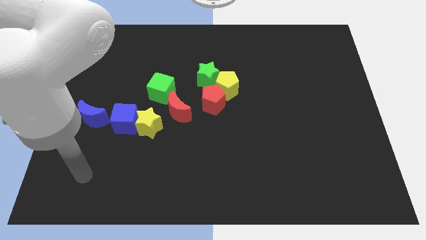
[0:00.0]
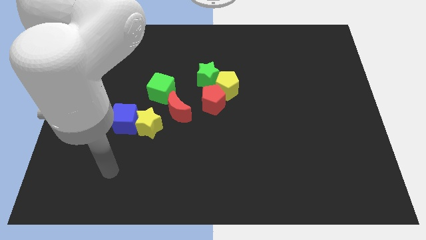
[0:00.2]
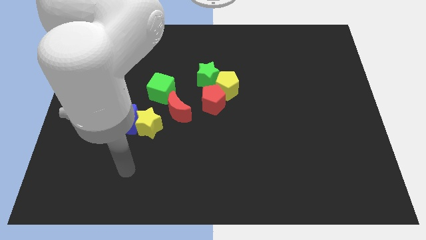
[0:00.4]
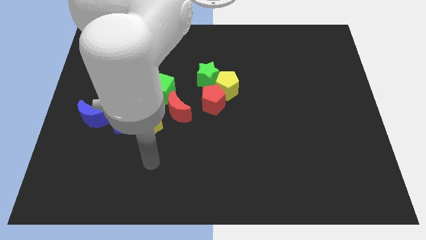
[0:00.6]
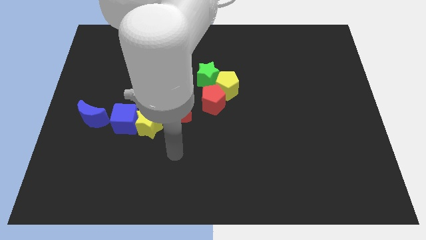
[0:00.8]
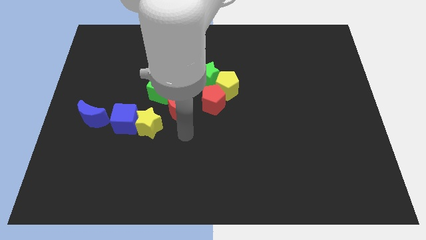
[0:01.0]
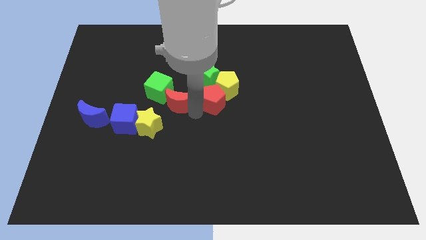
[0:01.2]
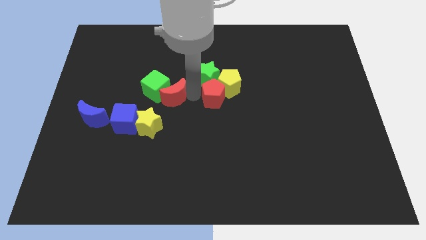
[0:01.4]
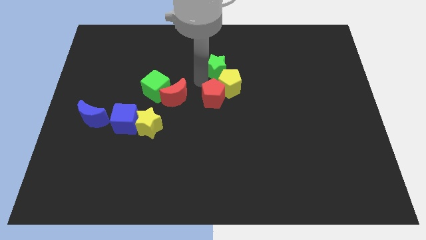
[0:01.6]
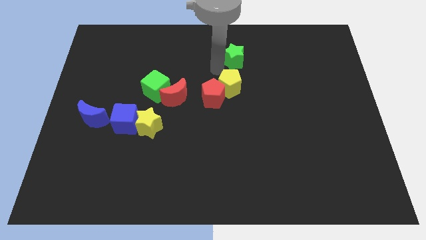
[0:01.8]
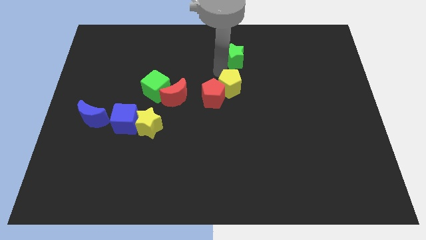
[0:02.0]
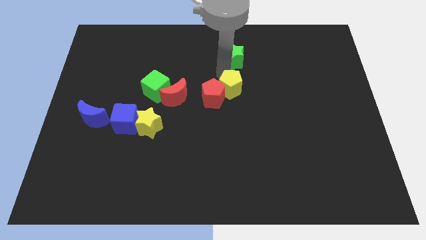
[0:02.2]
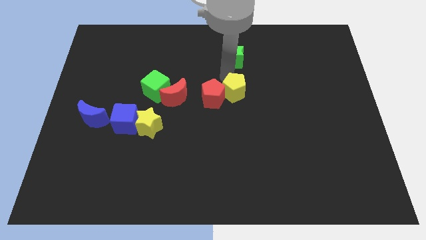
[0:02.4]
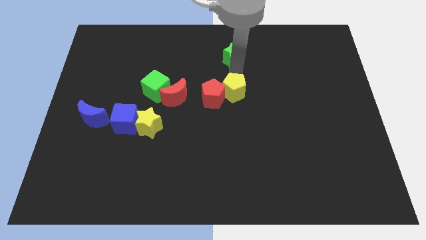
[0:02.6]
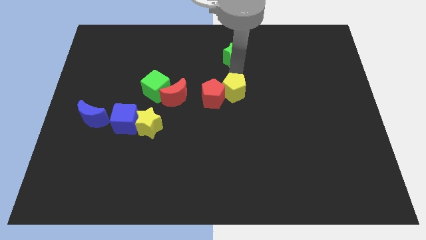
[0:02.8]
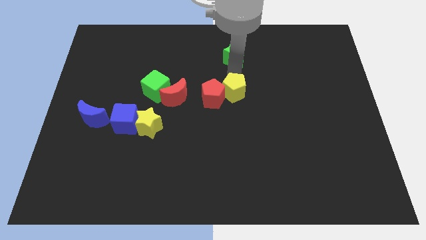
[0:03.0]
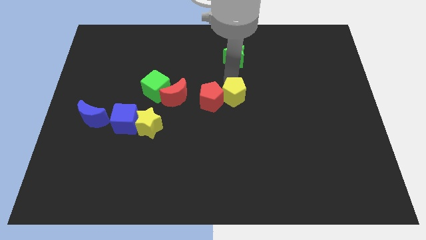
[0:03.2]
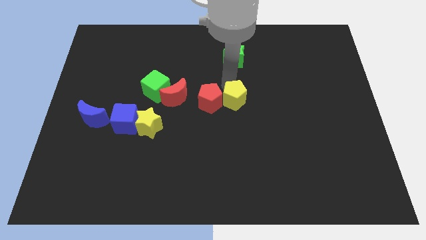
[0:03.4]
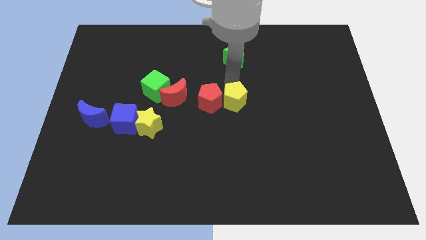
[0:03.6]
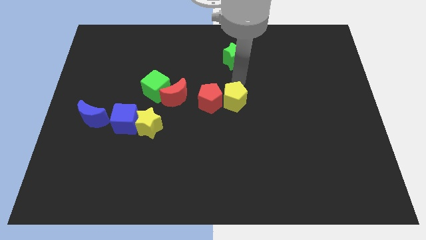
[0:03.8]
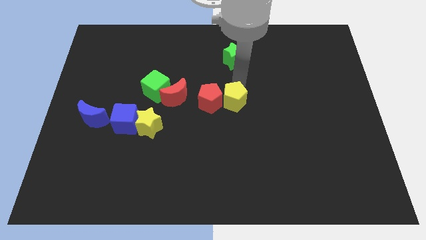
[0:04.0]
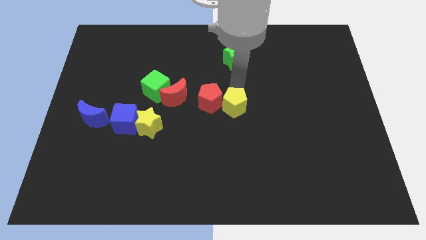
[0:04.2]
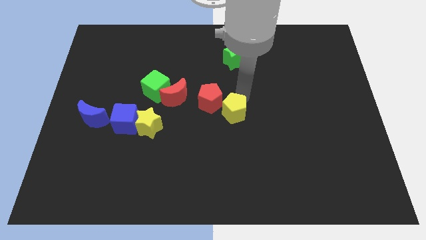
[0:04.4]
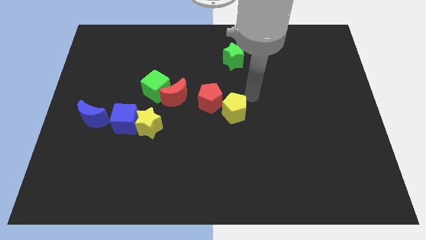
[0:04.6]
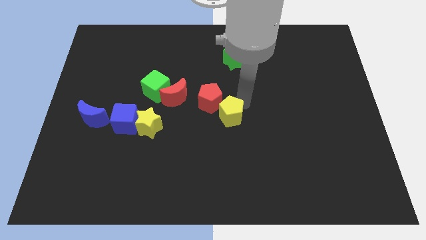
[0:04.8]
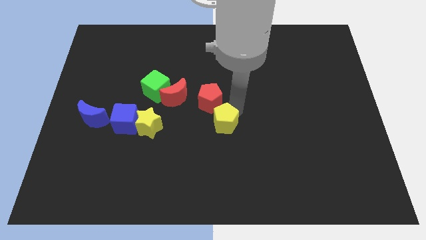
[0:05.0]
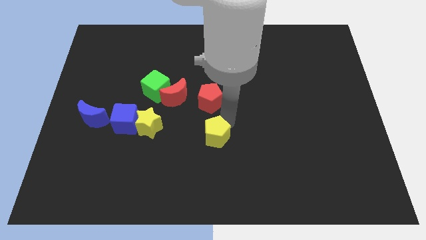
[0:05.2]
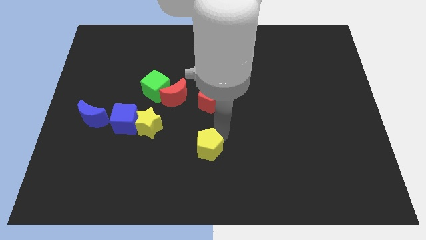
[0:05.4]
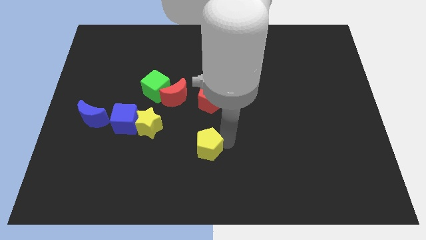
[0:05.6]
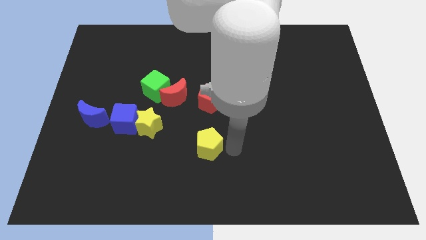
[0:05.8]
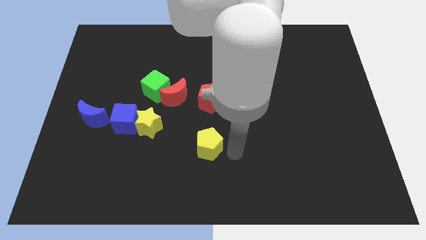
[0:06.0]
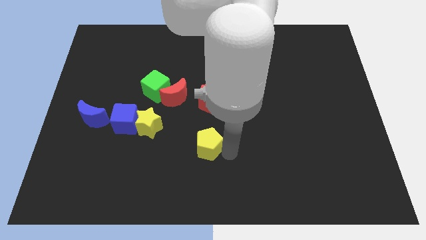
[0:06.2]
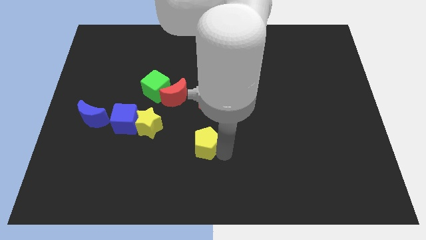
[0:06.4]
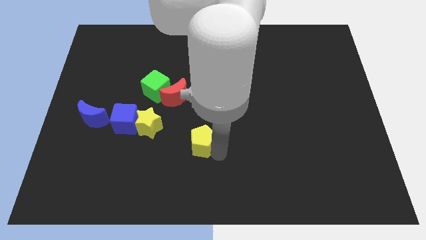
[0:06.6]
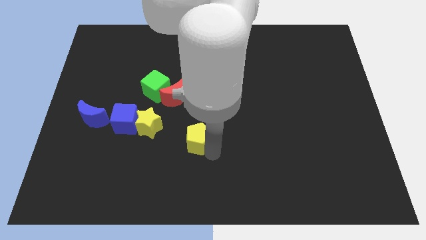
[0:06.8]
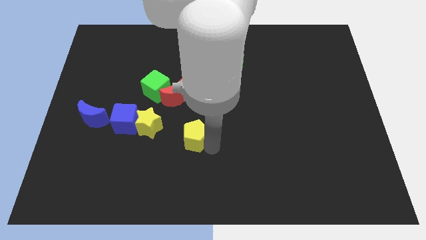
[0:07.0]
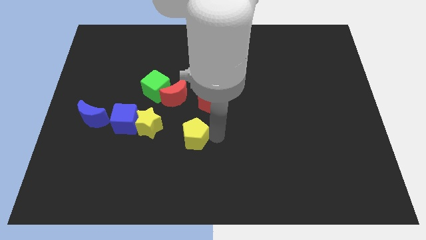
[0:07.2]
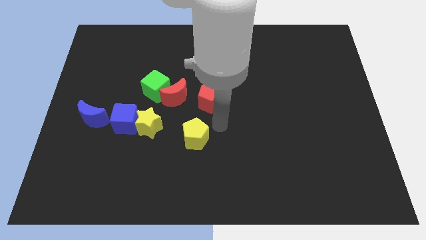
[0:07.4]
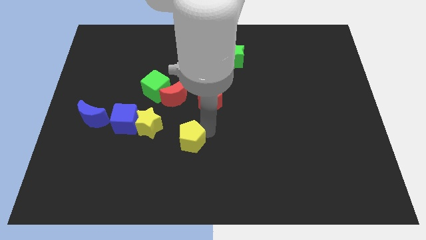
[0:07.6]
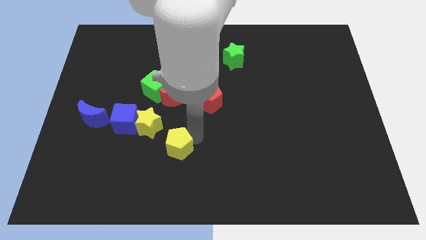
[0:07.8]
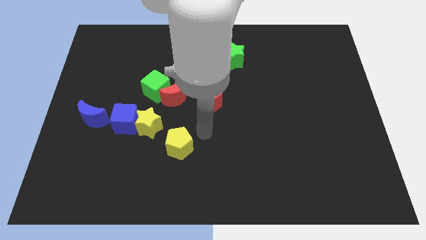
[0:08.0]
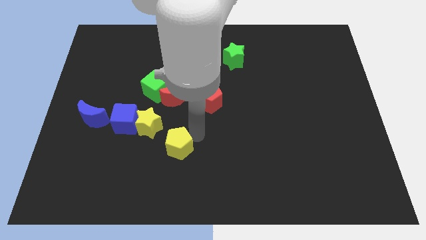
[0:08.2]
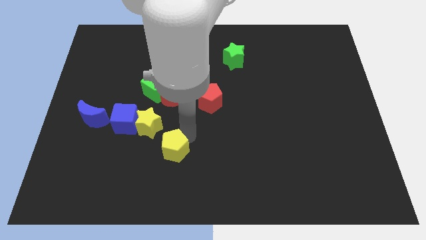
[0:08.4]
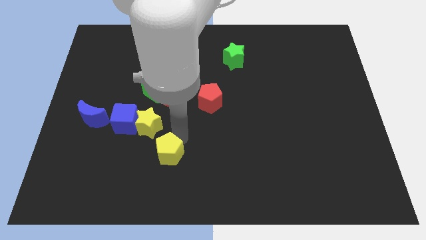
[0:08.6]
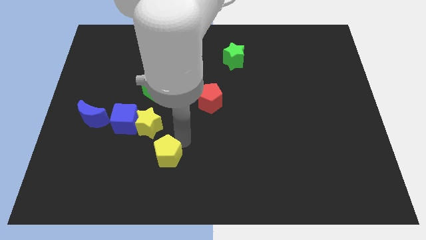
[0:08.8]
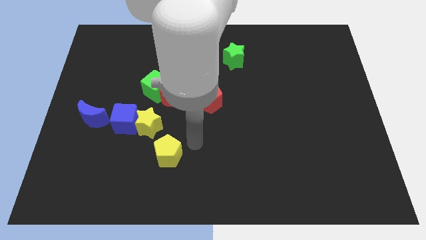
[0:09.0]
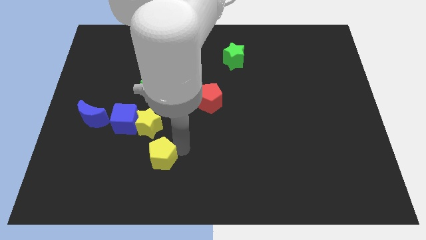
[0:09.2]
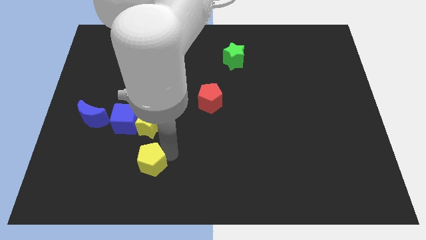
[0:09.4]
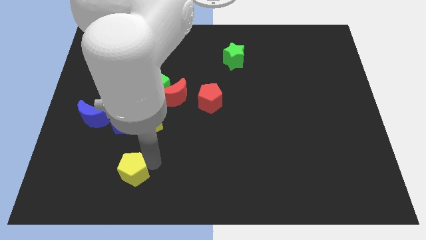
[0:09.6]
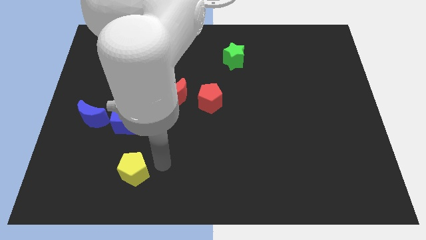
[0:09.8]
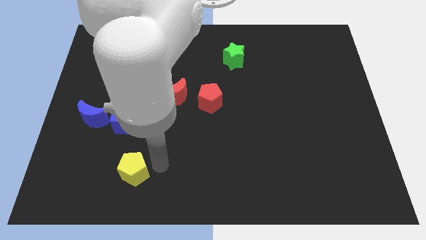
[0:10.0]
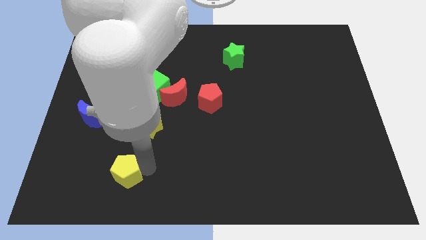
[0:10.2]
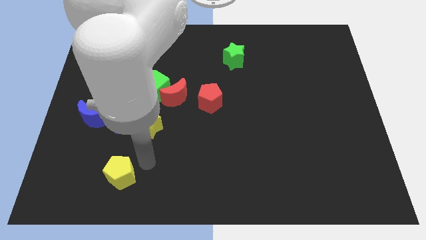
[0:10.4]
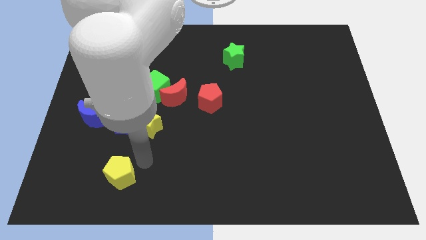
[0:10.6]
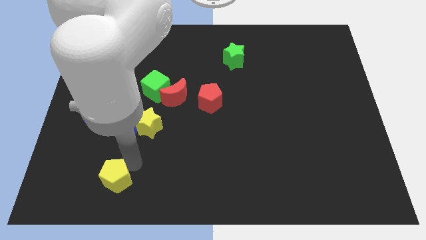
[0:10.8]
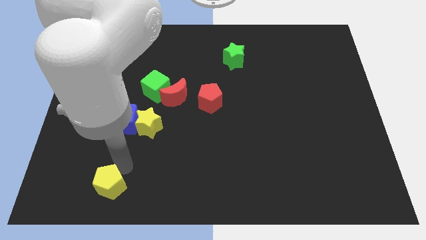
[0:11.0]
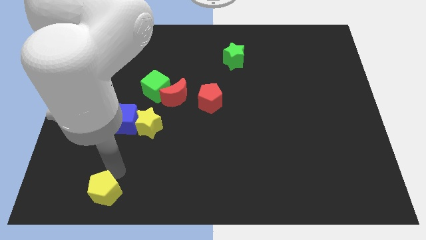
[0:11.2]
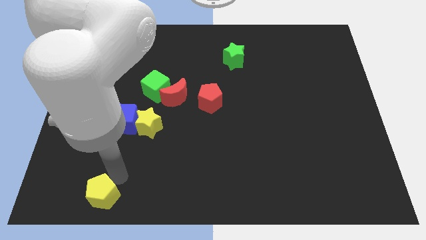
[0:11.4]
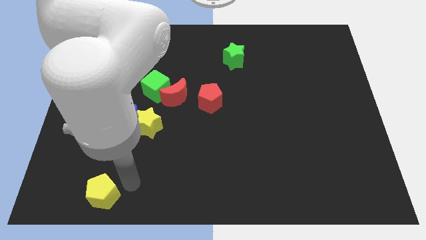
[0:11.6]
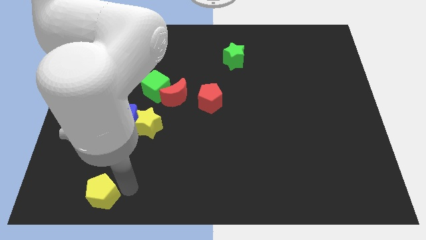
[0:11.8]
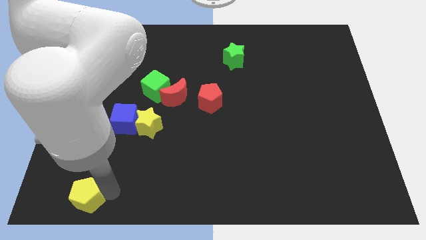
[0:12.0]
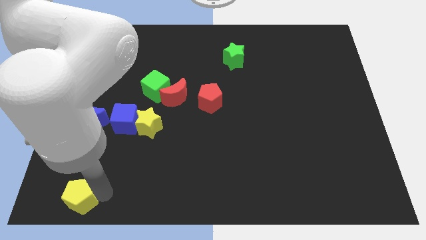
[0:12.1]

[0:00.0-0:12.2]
push the yellow pentagon to the bottom left of the board
